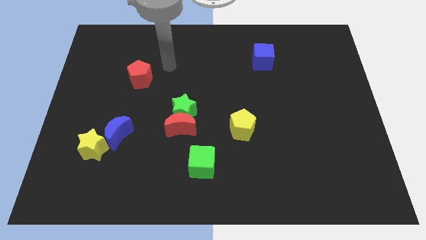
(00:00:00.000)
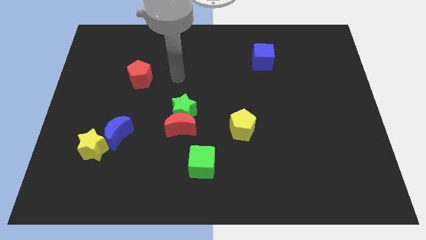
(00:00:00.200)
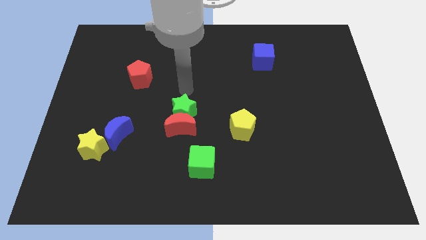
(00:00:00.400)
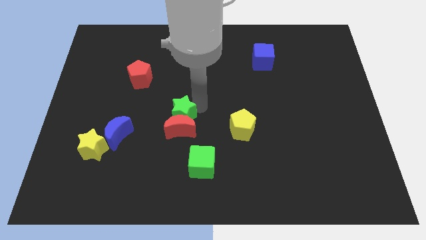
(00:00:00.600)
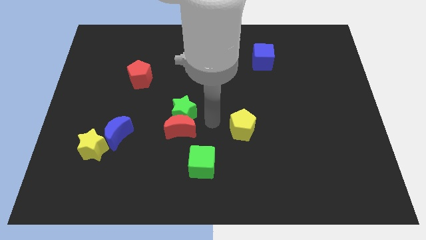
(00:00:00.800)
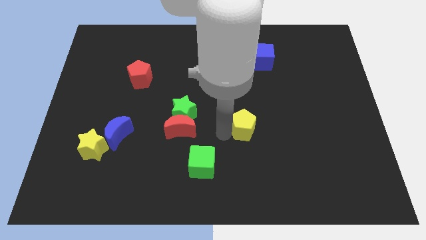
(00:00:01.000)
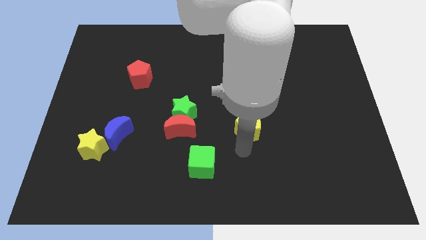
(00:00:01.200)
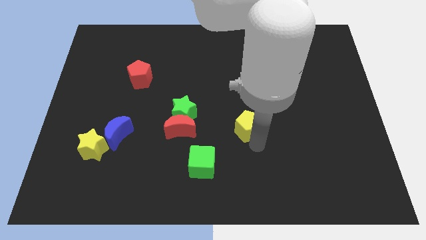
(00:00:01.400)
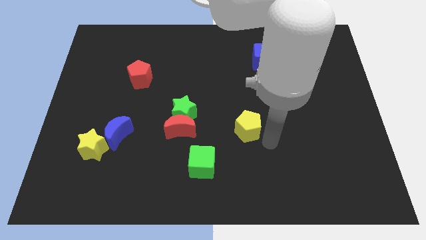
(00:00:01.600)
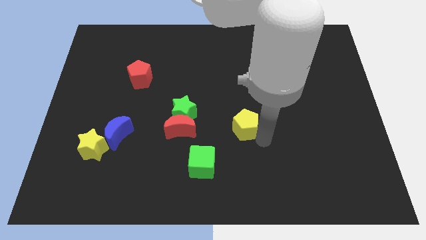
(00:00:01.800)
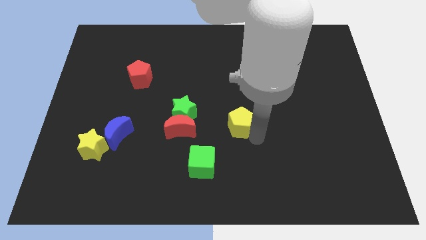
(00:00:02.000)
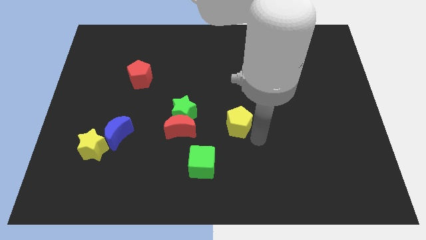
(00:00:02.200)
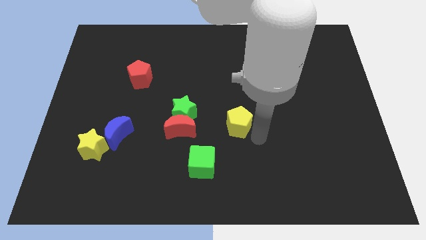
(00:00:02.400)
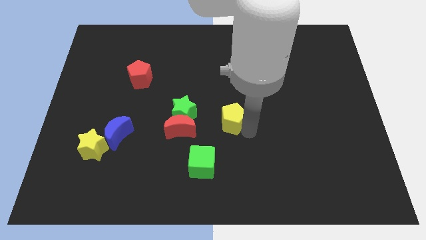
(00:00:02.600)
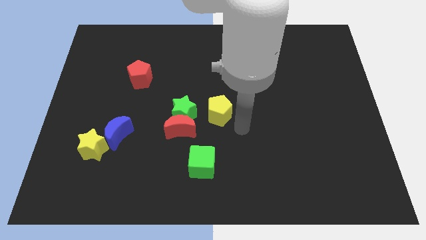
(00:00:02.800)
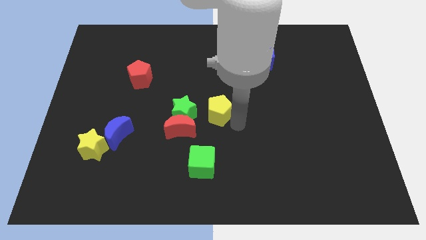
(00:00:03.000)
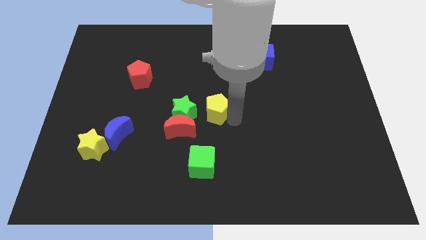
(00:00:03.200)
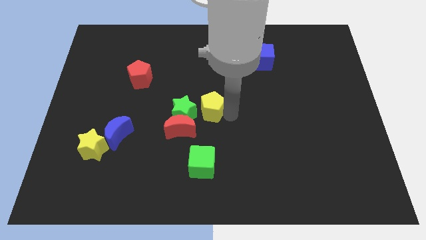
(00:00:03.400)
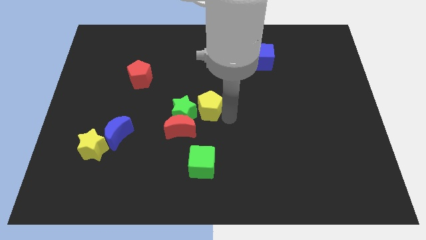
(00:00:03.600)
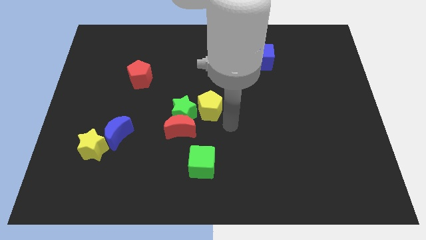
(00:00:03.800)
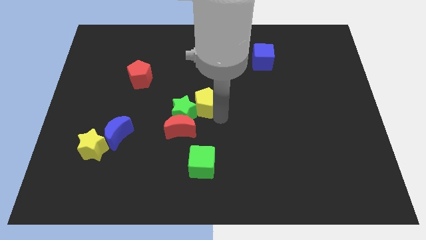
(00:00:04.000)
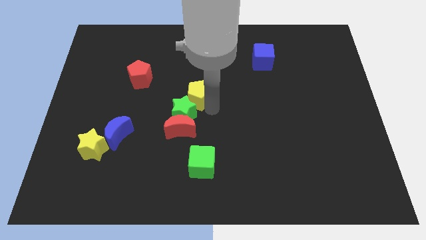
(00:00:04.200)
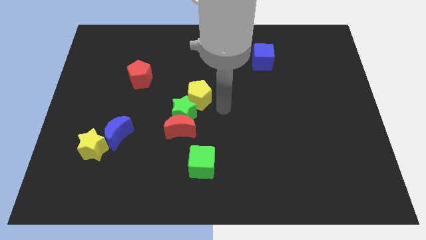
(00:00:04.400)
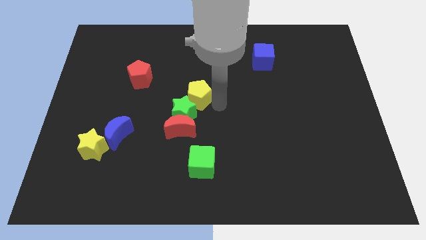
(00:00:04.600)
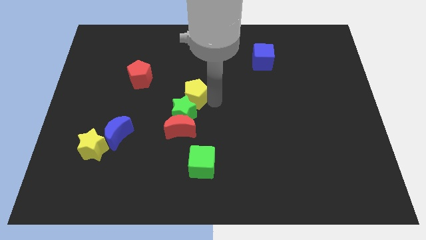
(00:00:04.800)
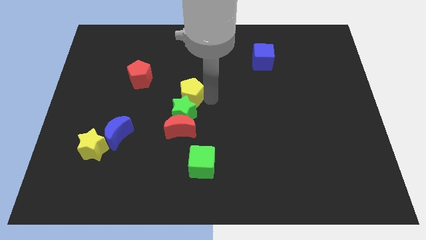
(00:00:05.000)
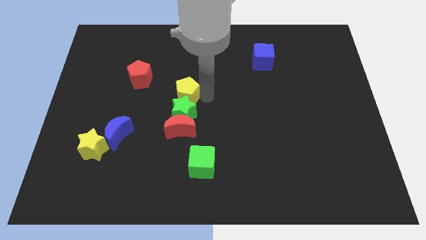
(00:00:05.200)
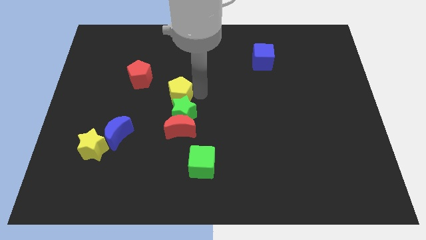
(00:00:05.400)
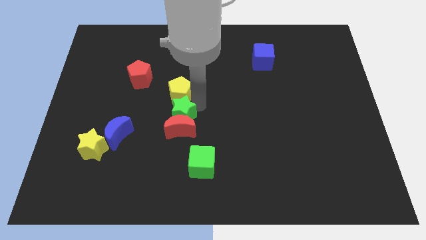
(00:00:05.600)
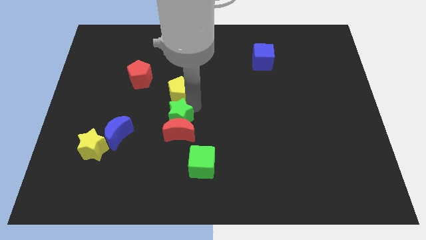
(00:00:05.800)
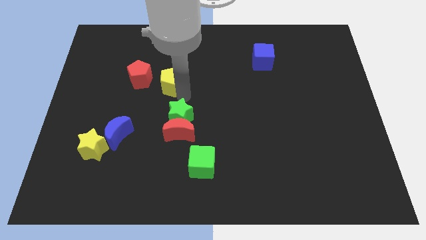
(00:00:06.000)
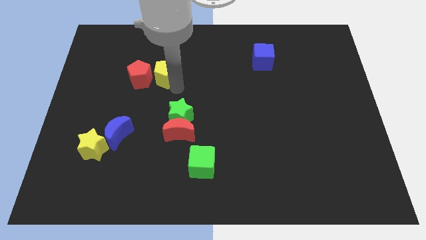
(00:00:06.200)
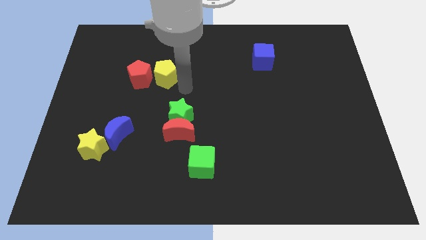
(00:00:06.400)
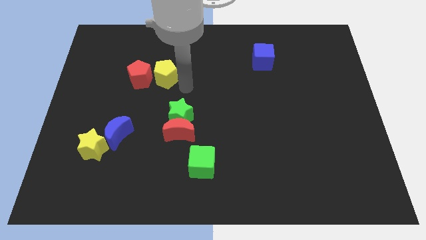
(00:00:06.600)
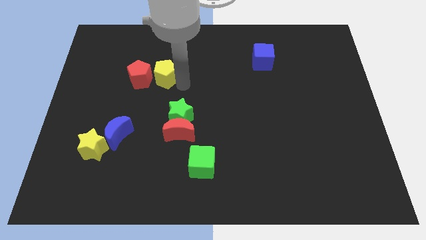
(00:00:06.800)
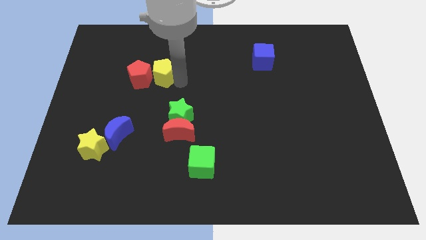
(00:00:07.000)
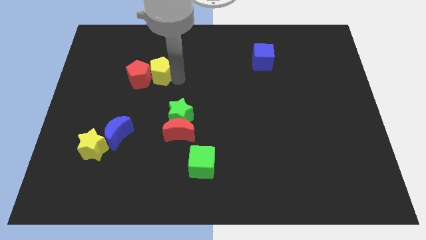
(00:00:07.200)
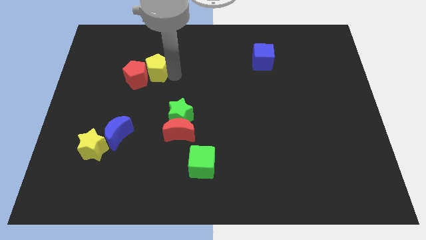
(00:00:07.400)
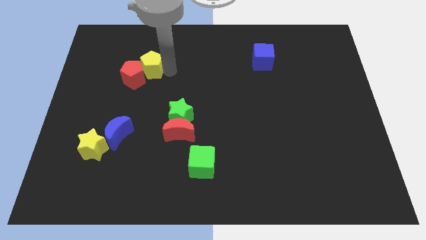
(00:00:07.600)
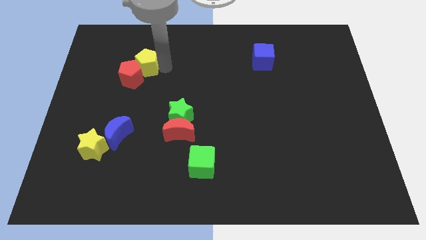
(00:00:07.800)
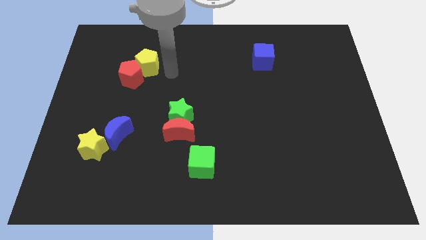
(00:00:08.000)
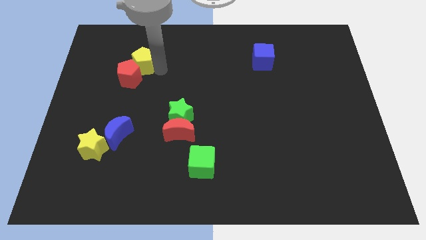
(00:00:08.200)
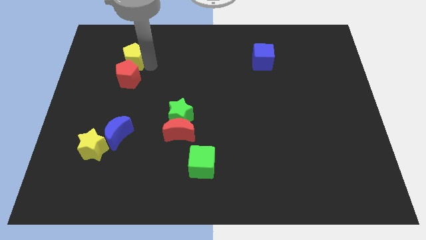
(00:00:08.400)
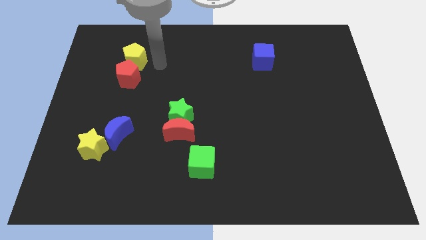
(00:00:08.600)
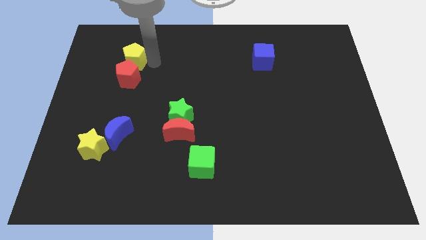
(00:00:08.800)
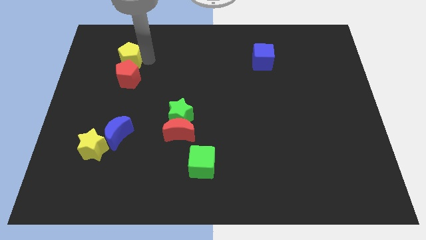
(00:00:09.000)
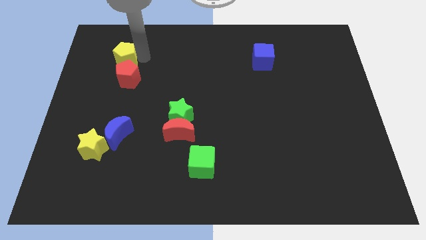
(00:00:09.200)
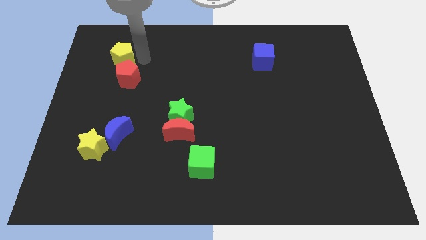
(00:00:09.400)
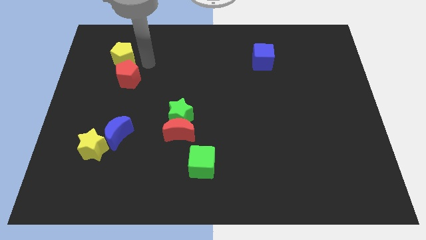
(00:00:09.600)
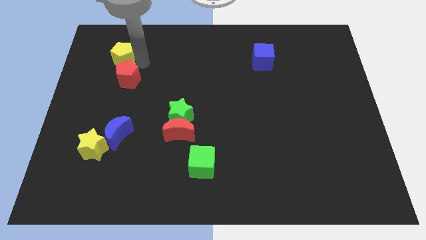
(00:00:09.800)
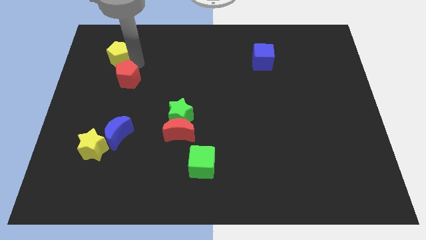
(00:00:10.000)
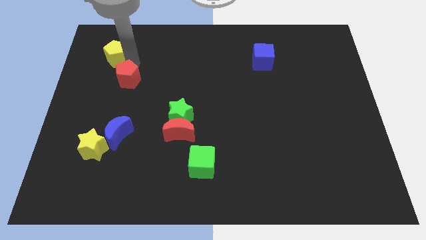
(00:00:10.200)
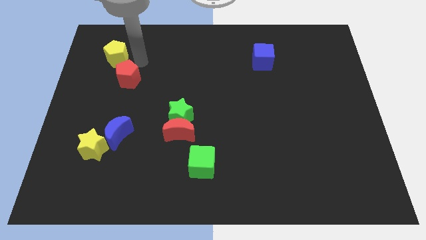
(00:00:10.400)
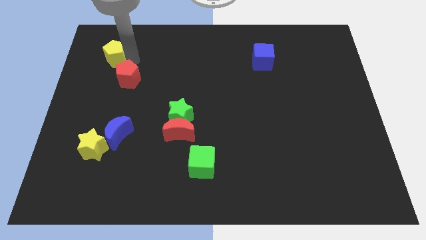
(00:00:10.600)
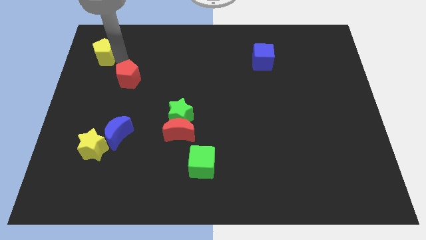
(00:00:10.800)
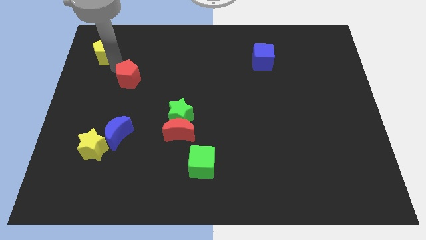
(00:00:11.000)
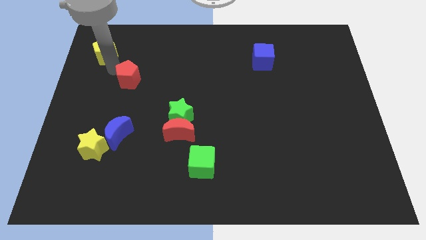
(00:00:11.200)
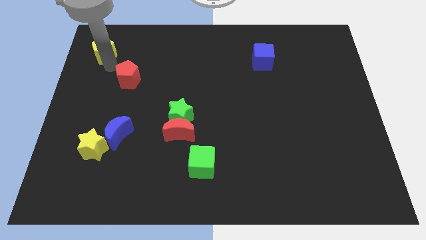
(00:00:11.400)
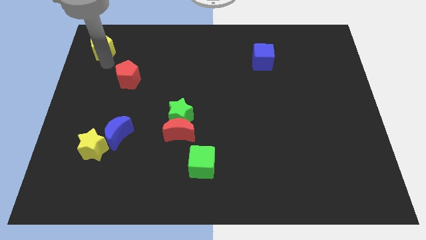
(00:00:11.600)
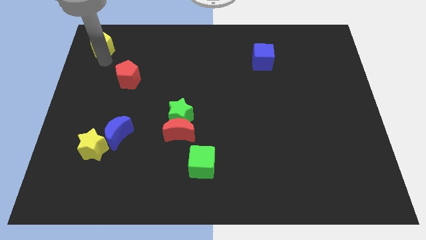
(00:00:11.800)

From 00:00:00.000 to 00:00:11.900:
slide the yellow pentagon to the top left

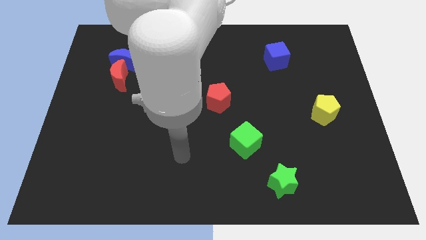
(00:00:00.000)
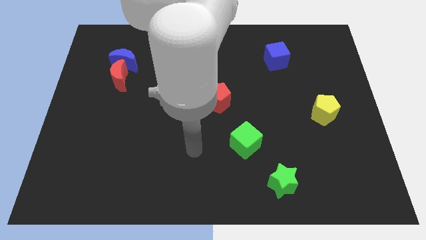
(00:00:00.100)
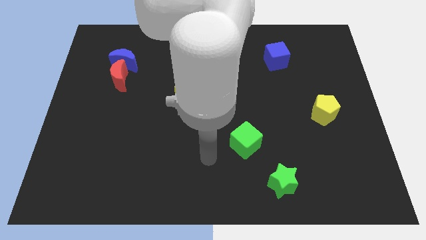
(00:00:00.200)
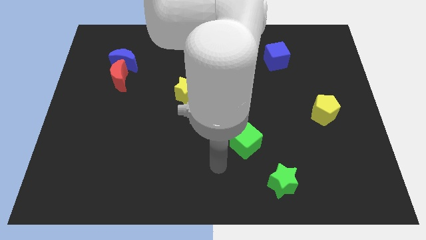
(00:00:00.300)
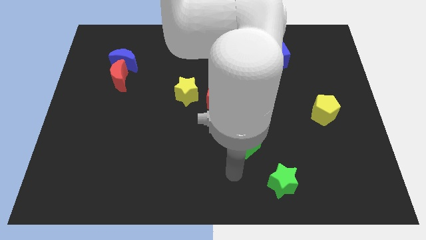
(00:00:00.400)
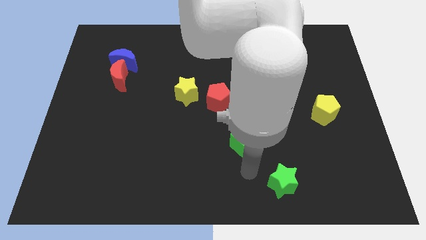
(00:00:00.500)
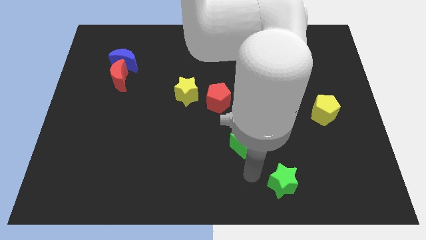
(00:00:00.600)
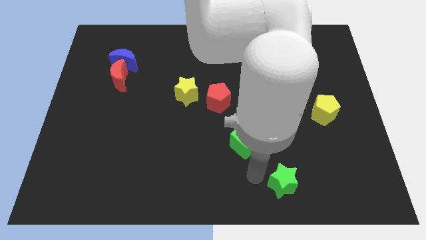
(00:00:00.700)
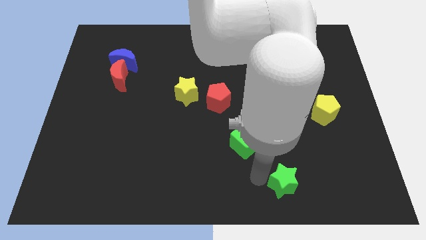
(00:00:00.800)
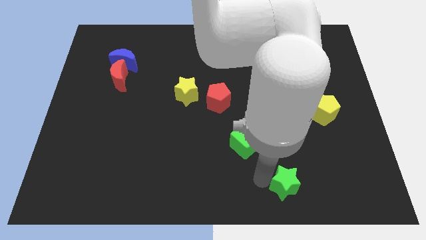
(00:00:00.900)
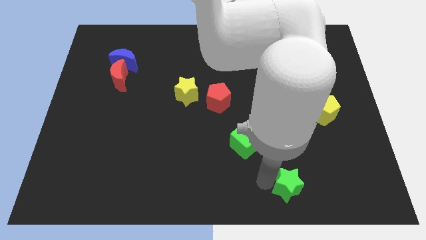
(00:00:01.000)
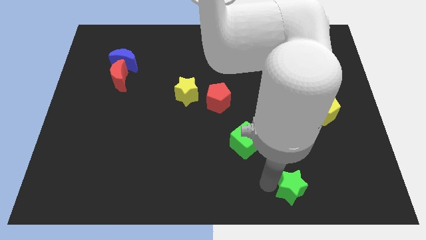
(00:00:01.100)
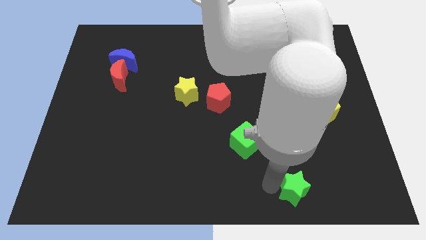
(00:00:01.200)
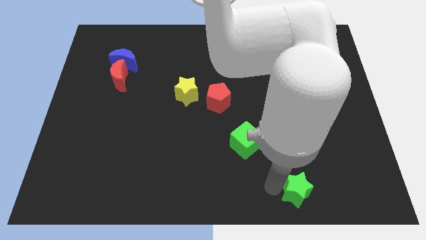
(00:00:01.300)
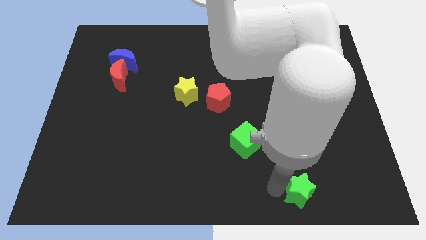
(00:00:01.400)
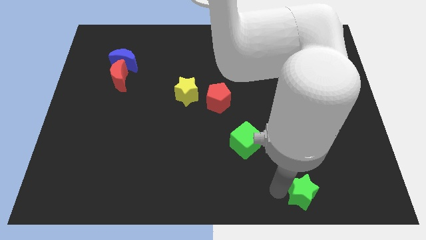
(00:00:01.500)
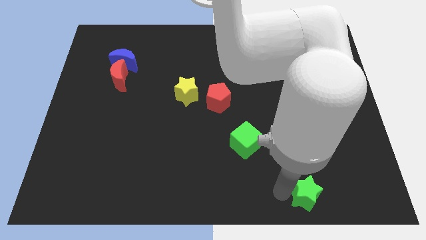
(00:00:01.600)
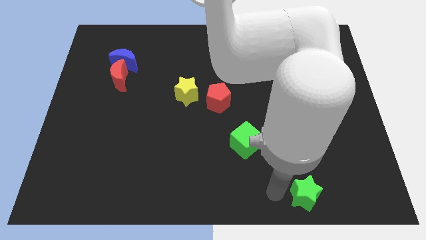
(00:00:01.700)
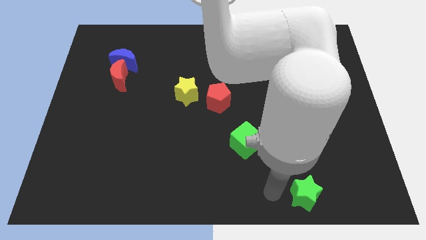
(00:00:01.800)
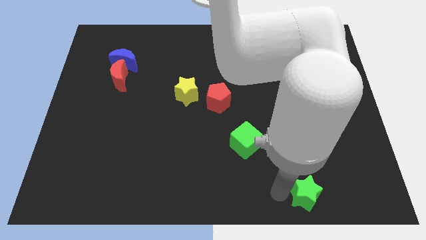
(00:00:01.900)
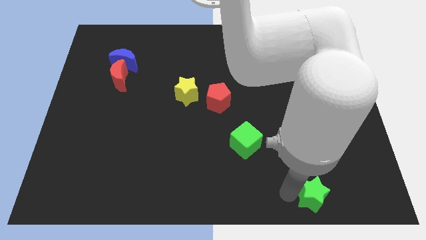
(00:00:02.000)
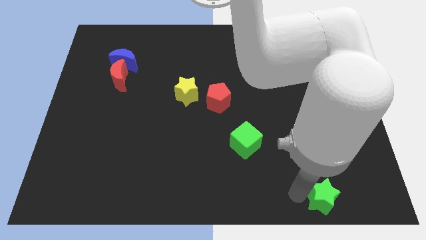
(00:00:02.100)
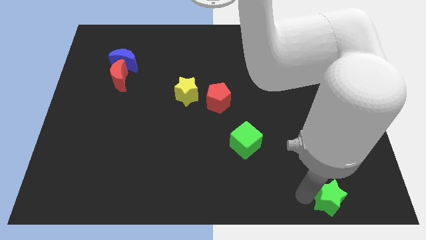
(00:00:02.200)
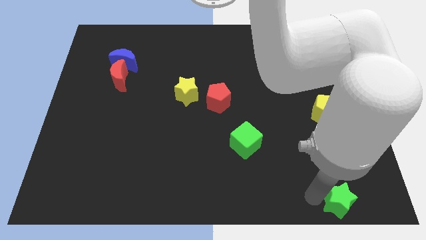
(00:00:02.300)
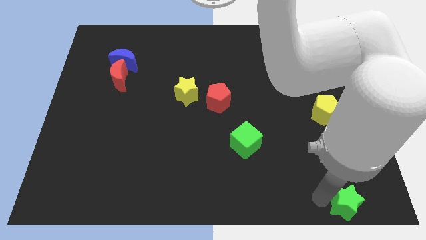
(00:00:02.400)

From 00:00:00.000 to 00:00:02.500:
move the green star to the lower right corner
